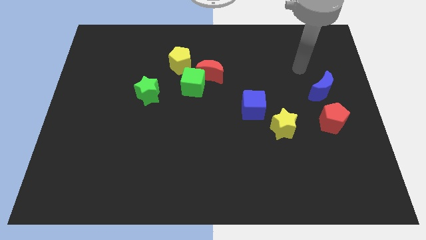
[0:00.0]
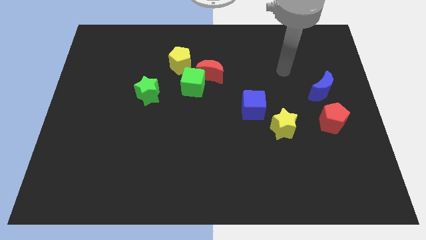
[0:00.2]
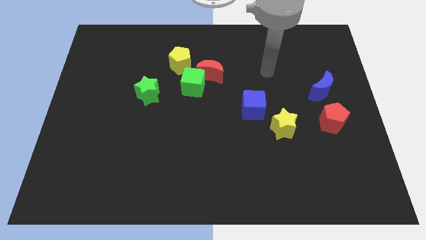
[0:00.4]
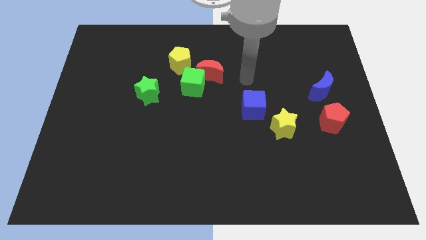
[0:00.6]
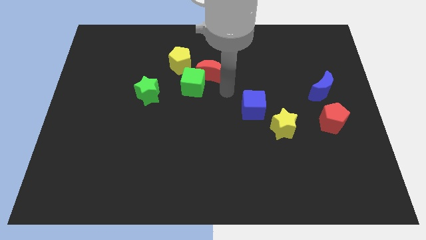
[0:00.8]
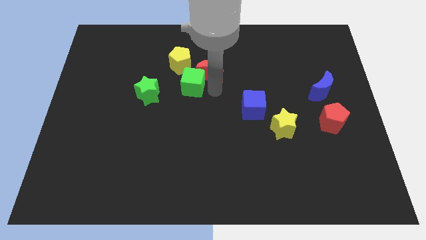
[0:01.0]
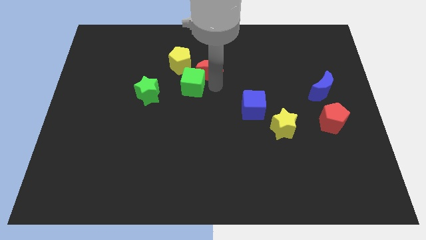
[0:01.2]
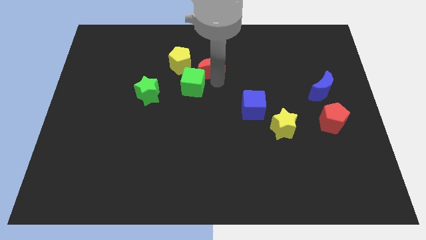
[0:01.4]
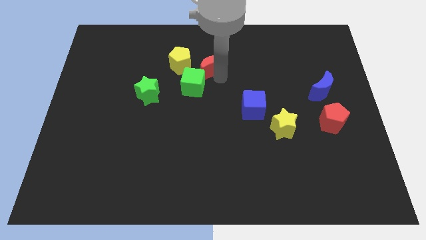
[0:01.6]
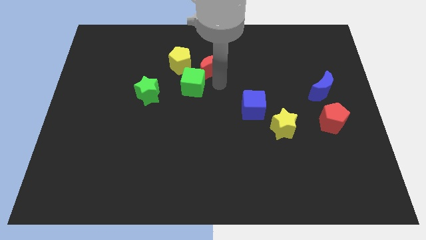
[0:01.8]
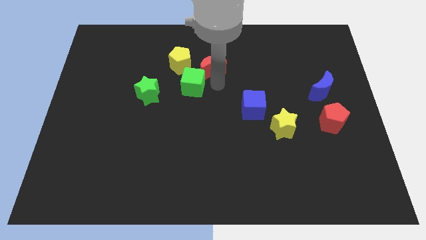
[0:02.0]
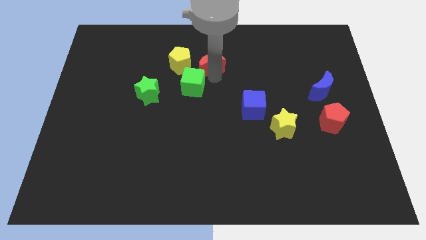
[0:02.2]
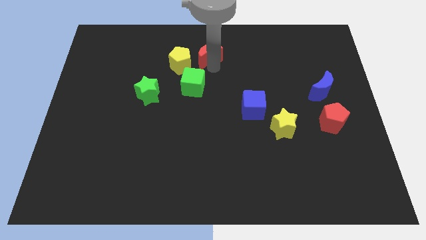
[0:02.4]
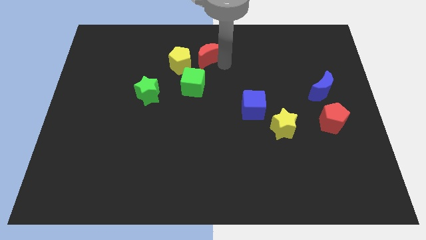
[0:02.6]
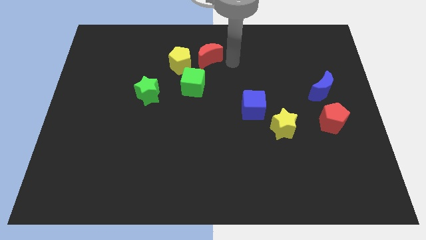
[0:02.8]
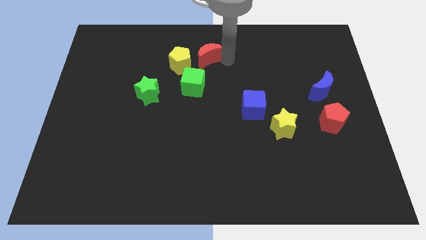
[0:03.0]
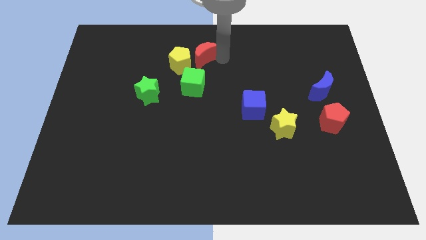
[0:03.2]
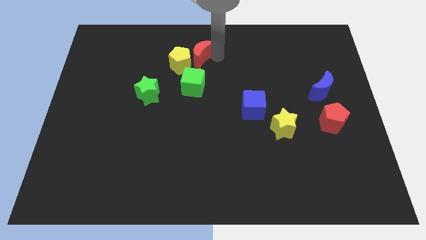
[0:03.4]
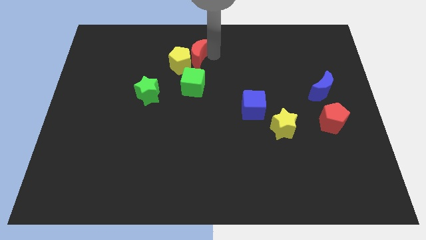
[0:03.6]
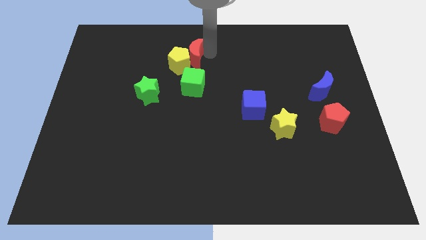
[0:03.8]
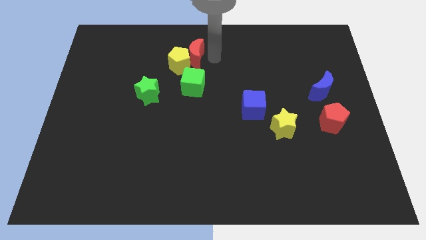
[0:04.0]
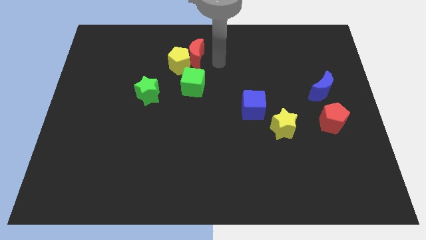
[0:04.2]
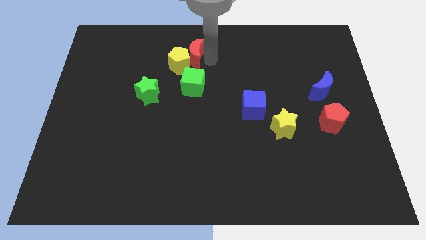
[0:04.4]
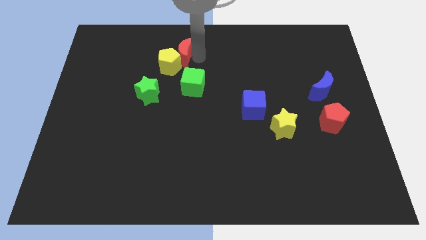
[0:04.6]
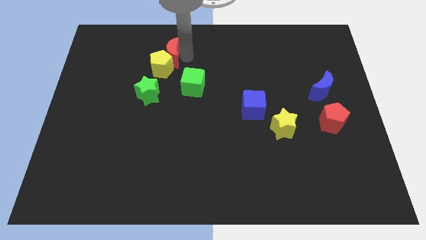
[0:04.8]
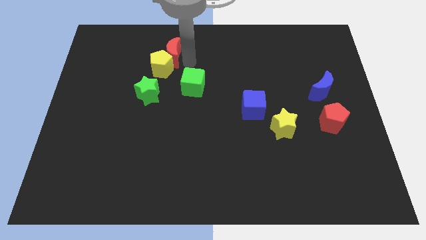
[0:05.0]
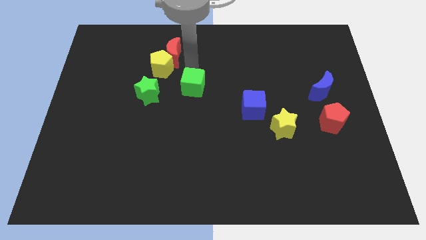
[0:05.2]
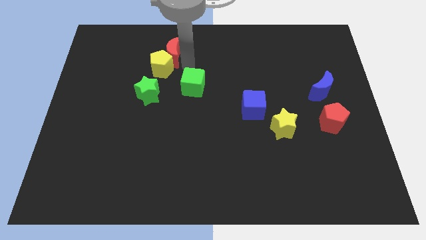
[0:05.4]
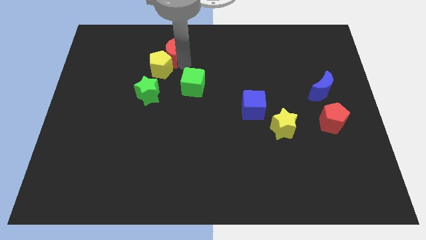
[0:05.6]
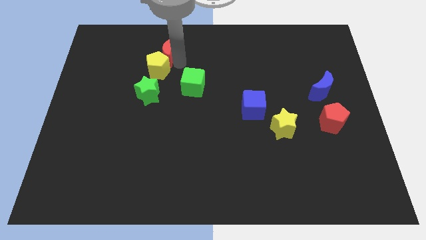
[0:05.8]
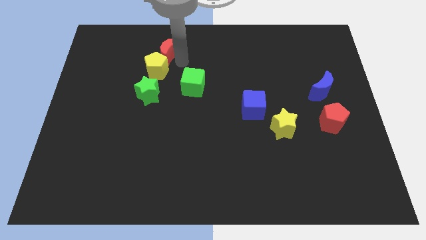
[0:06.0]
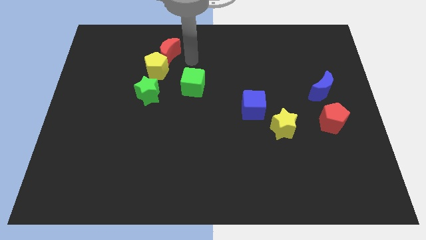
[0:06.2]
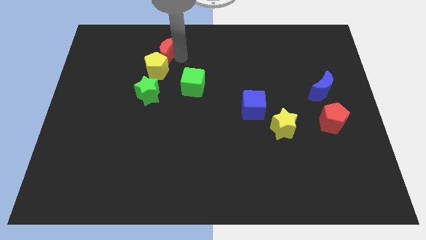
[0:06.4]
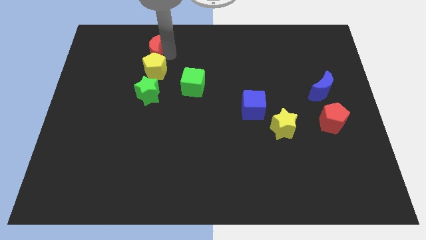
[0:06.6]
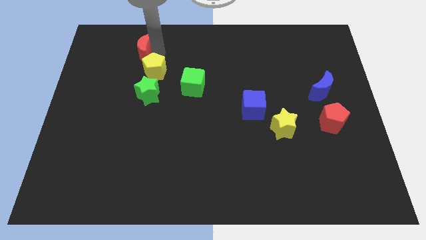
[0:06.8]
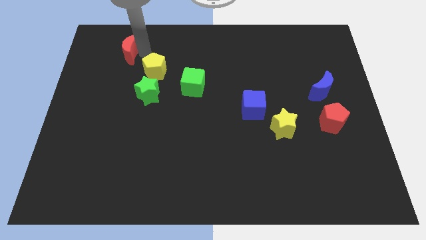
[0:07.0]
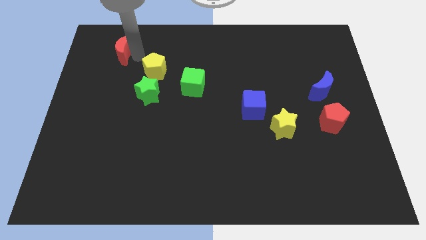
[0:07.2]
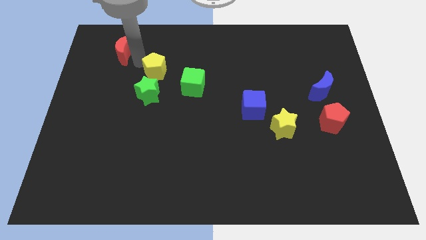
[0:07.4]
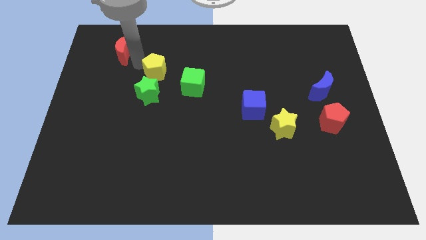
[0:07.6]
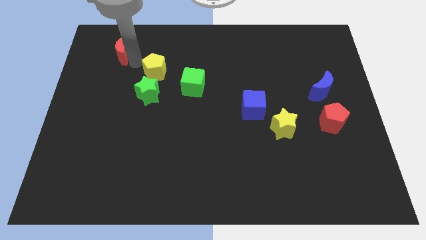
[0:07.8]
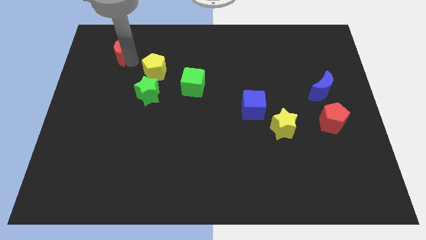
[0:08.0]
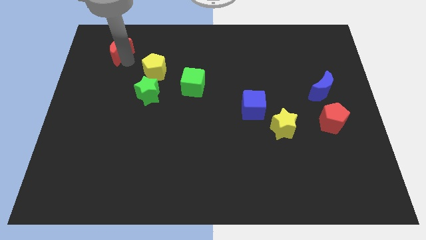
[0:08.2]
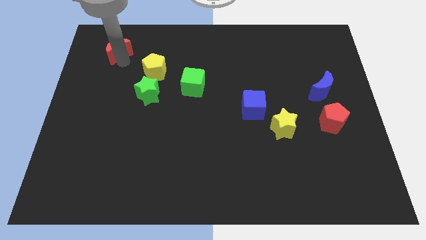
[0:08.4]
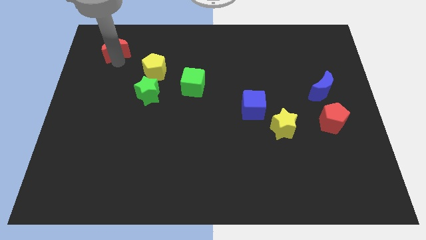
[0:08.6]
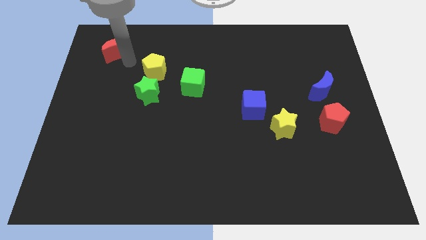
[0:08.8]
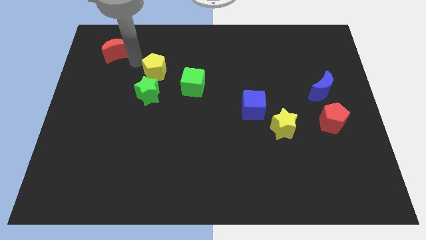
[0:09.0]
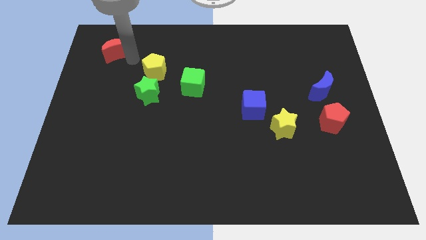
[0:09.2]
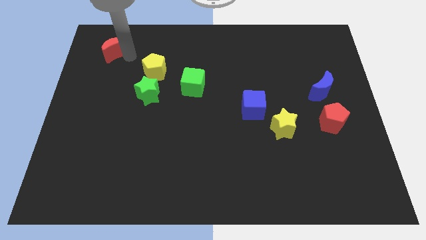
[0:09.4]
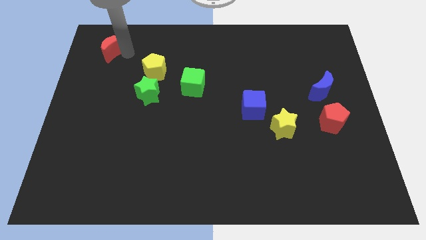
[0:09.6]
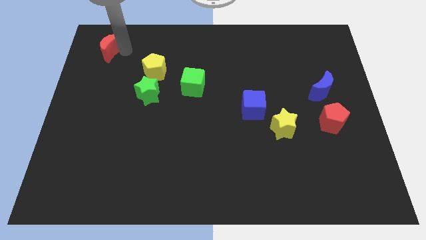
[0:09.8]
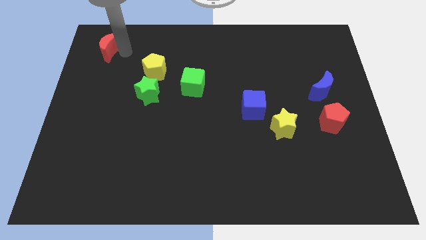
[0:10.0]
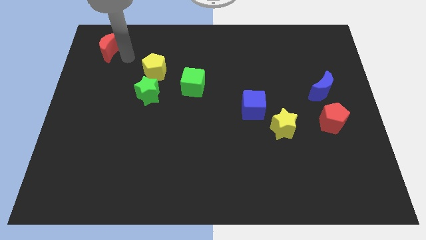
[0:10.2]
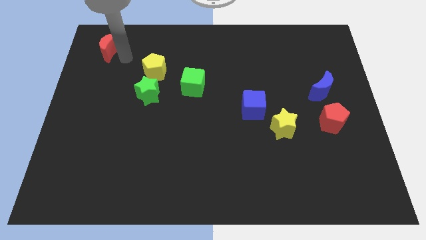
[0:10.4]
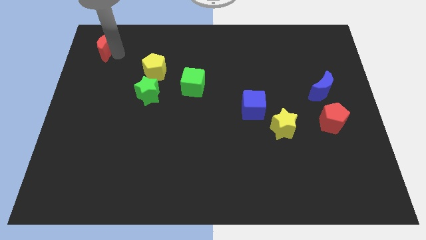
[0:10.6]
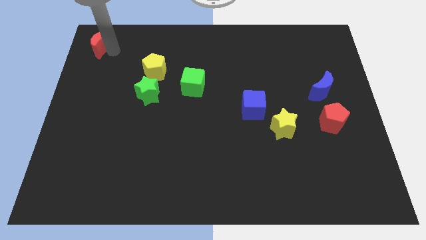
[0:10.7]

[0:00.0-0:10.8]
move the red moon to the upper left corner

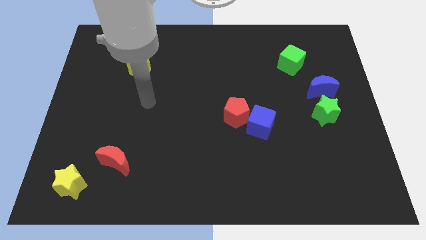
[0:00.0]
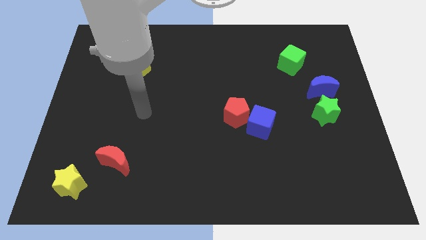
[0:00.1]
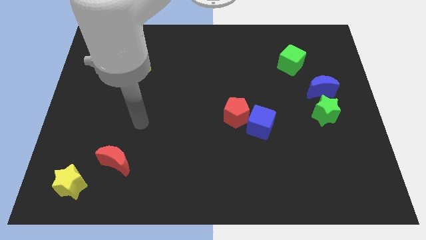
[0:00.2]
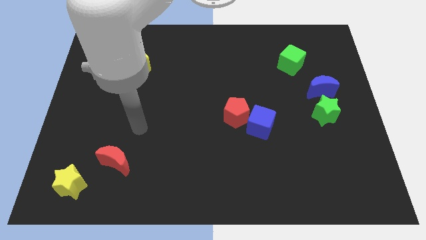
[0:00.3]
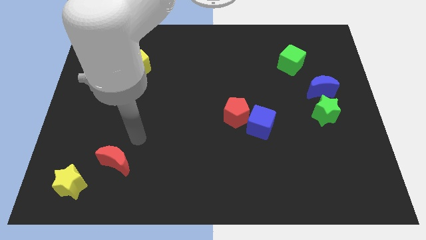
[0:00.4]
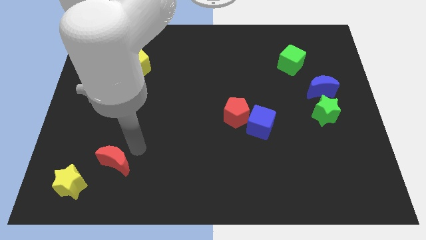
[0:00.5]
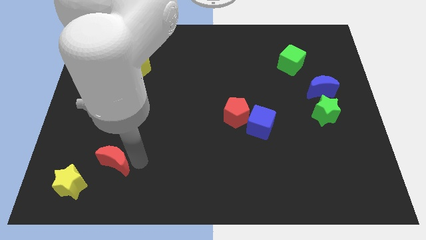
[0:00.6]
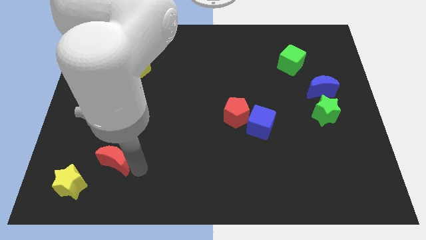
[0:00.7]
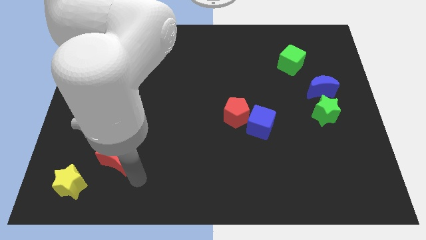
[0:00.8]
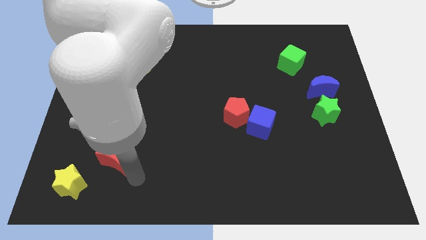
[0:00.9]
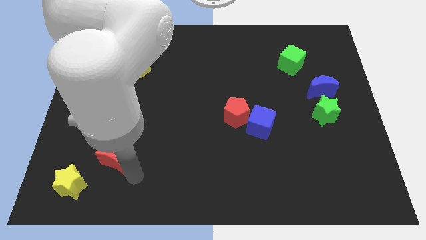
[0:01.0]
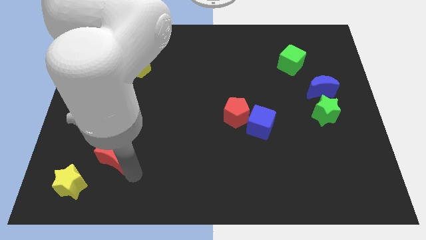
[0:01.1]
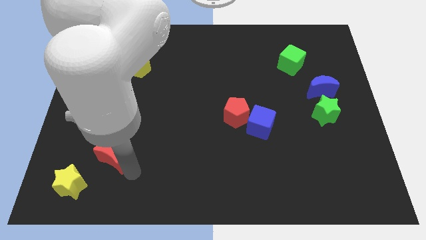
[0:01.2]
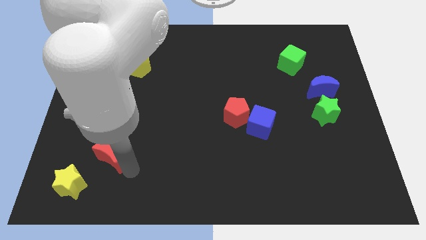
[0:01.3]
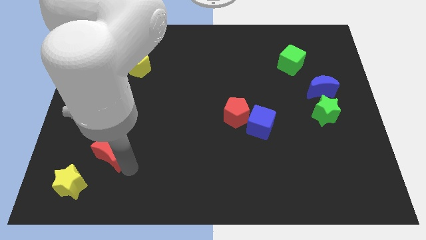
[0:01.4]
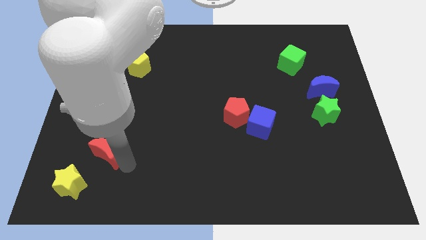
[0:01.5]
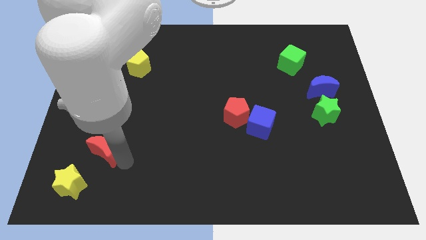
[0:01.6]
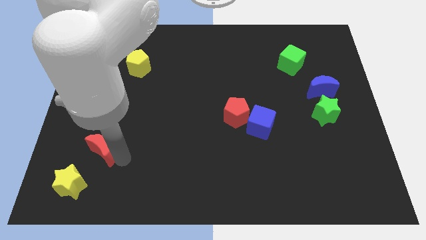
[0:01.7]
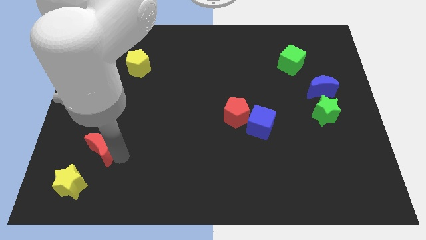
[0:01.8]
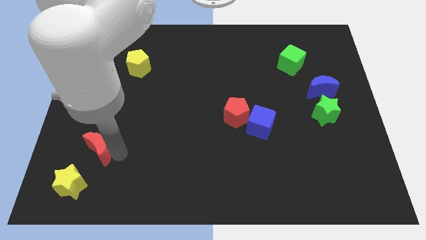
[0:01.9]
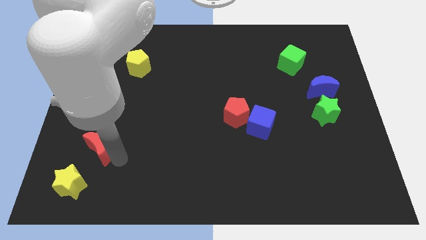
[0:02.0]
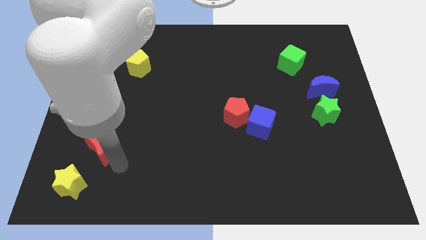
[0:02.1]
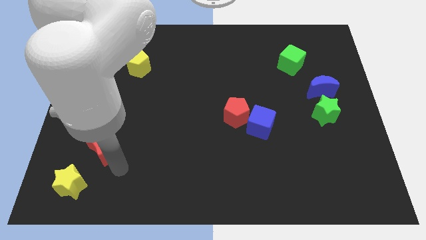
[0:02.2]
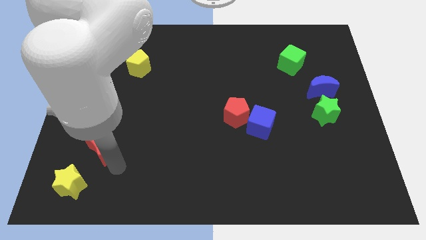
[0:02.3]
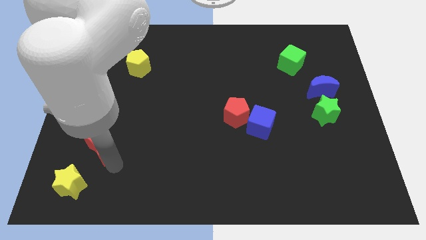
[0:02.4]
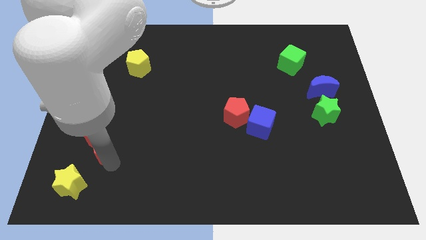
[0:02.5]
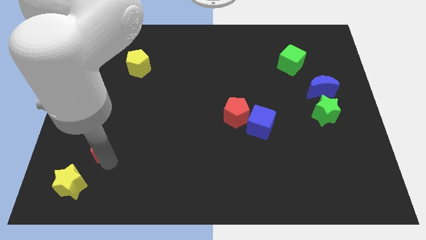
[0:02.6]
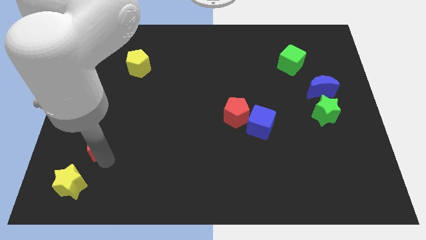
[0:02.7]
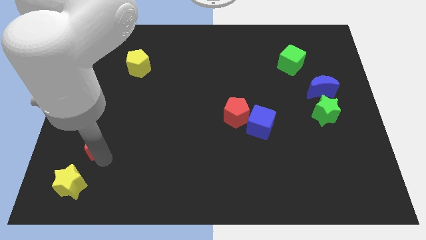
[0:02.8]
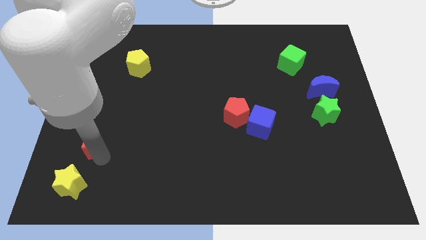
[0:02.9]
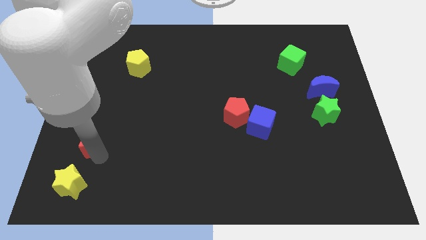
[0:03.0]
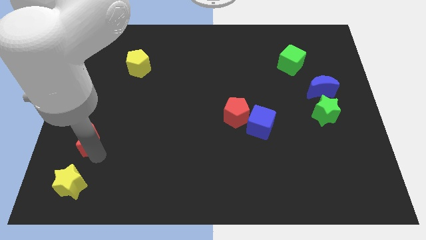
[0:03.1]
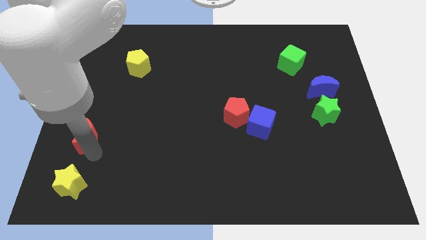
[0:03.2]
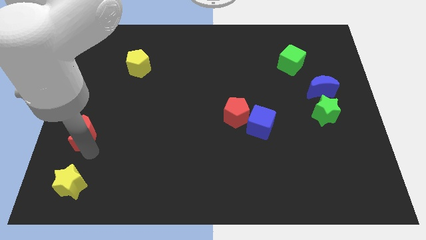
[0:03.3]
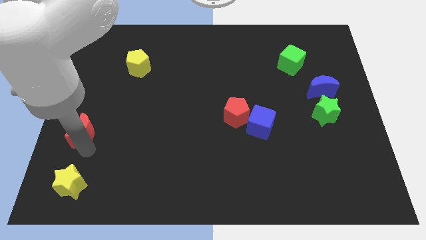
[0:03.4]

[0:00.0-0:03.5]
put the red moon to the center left
